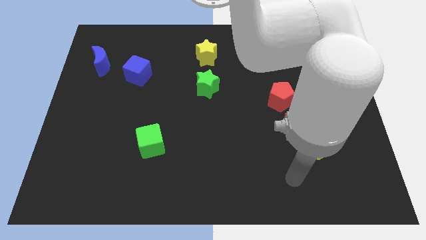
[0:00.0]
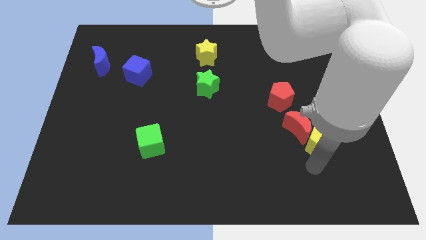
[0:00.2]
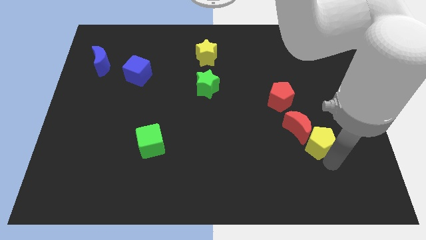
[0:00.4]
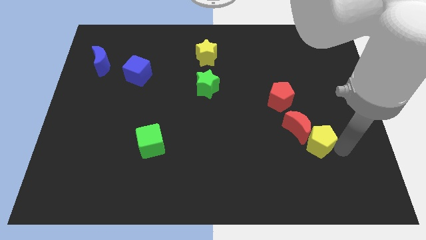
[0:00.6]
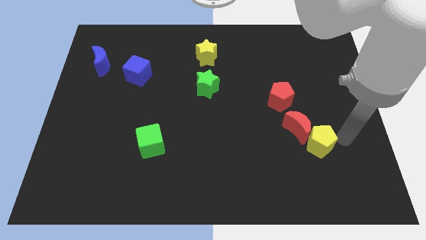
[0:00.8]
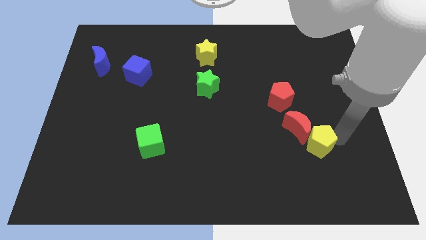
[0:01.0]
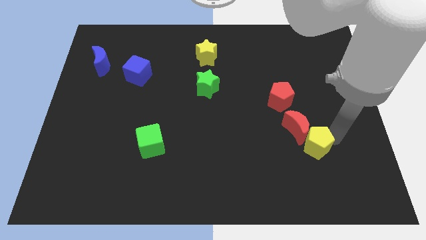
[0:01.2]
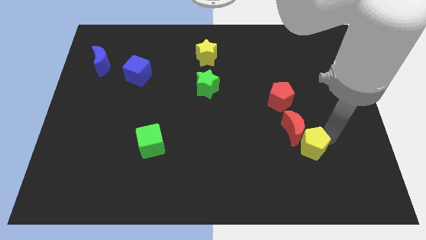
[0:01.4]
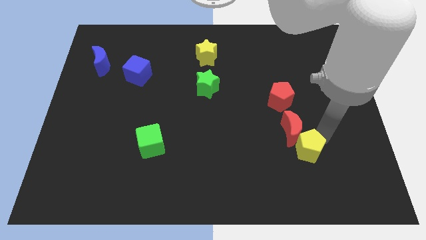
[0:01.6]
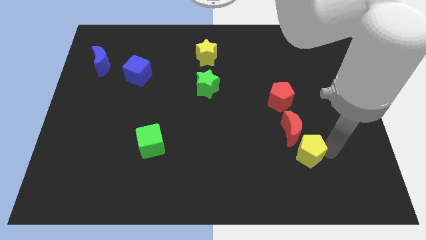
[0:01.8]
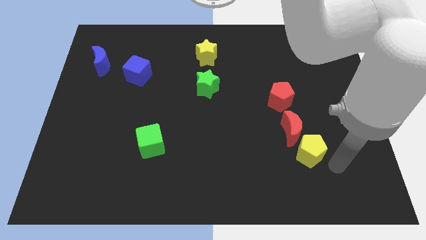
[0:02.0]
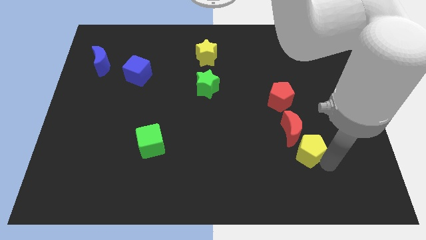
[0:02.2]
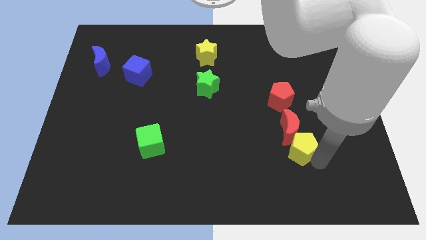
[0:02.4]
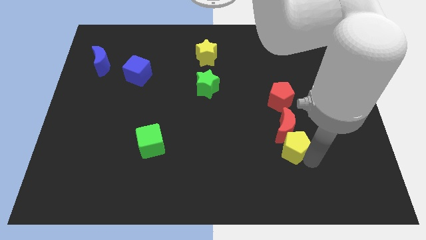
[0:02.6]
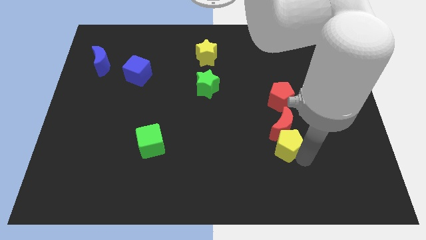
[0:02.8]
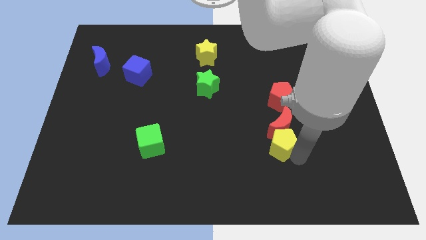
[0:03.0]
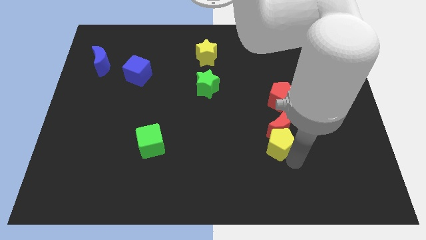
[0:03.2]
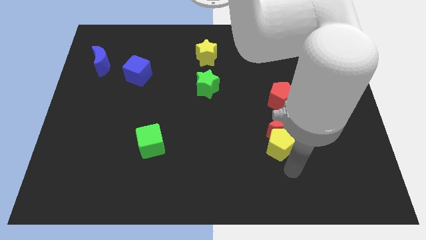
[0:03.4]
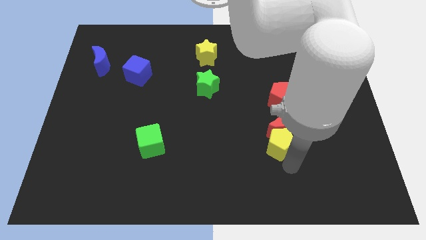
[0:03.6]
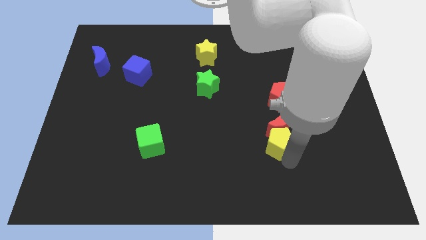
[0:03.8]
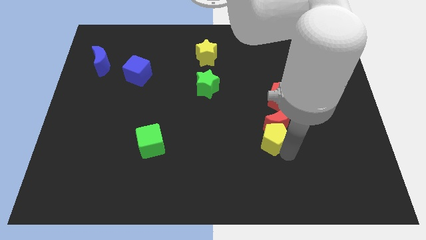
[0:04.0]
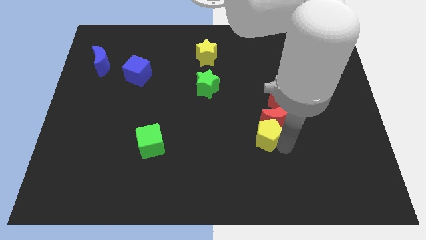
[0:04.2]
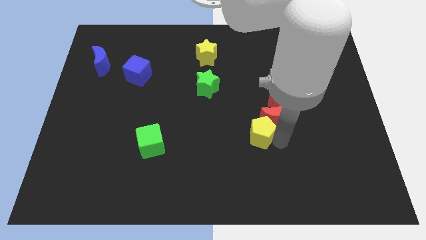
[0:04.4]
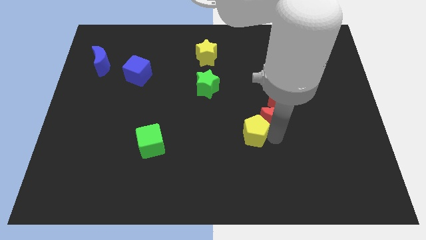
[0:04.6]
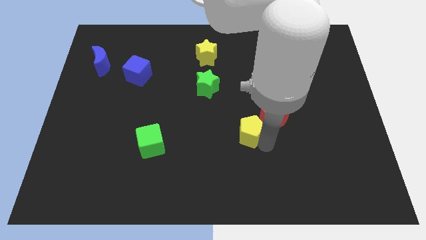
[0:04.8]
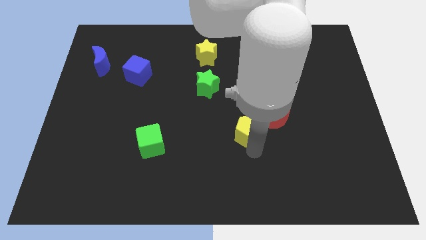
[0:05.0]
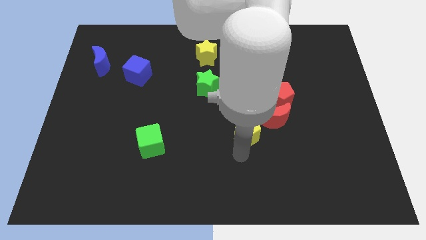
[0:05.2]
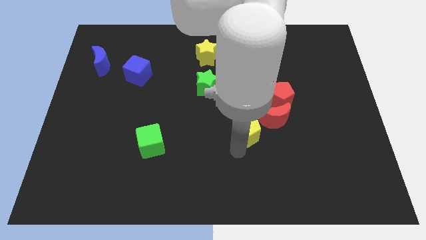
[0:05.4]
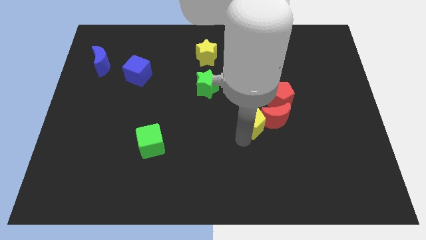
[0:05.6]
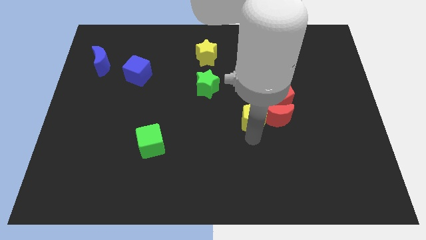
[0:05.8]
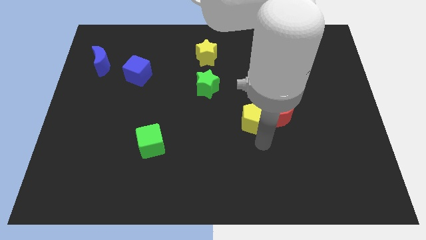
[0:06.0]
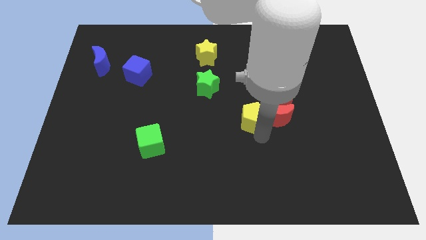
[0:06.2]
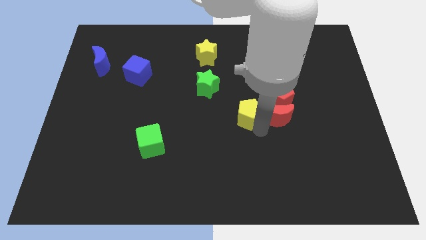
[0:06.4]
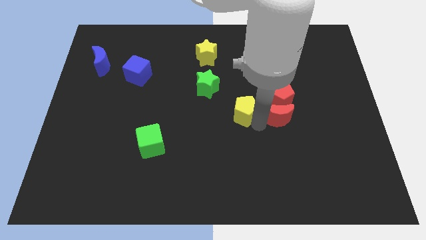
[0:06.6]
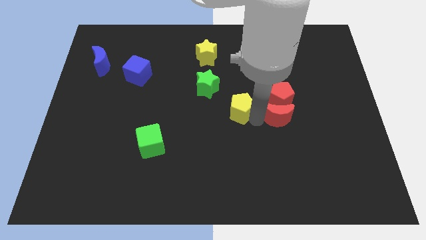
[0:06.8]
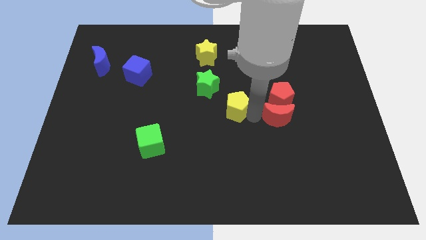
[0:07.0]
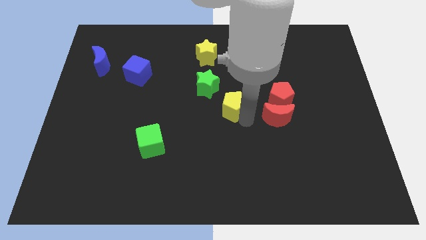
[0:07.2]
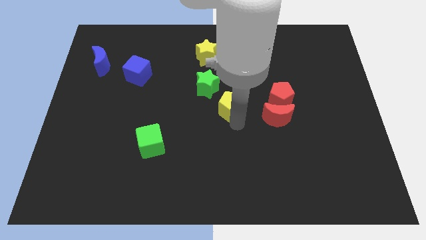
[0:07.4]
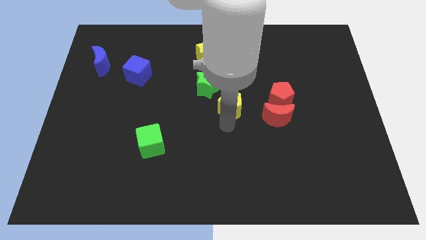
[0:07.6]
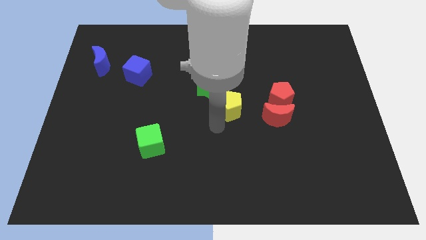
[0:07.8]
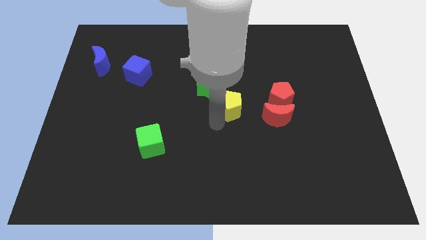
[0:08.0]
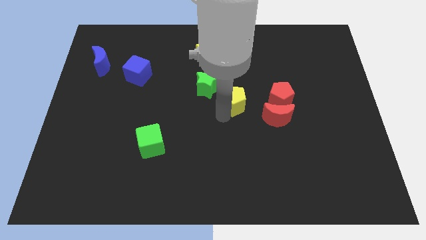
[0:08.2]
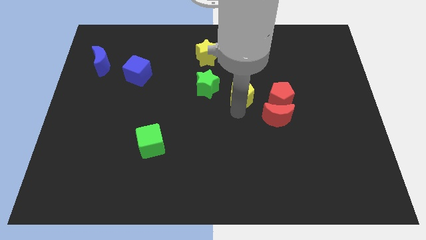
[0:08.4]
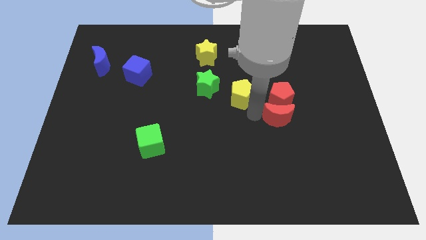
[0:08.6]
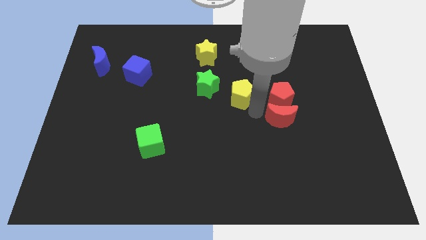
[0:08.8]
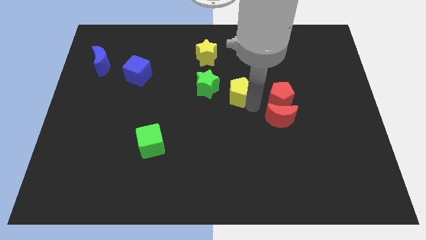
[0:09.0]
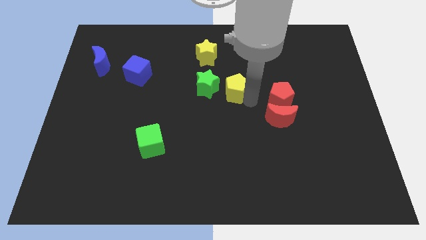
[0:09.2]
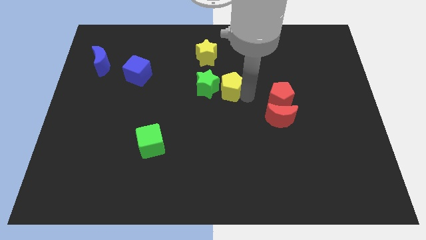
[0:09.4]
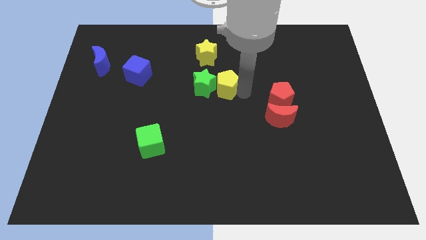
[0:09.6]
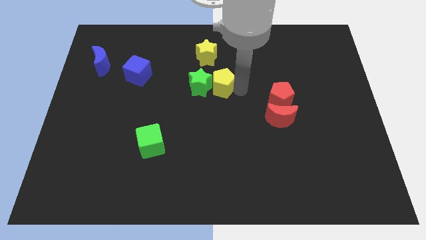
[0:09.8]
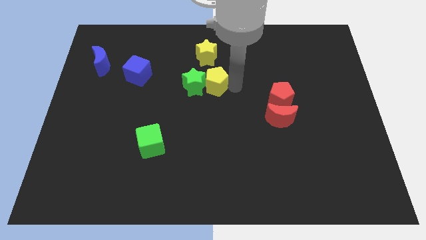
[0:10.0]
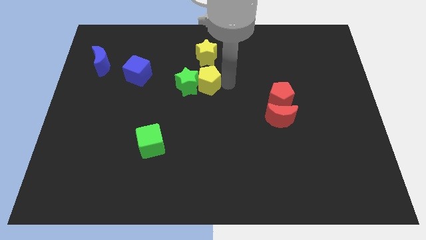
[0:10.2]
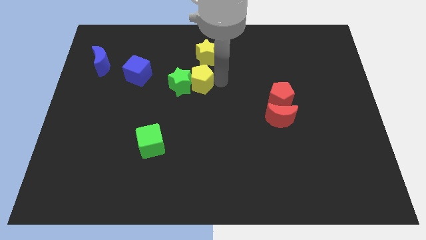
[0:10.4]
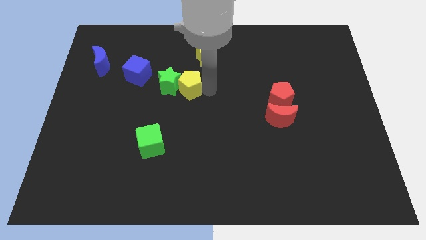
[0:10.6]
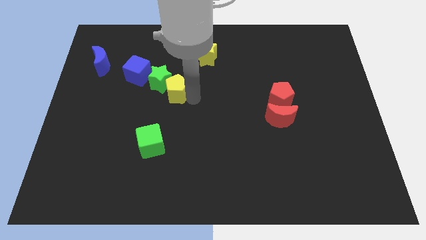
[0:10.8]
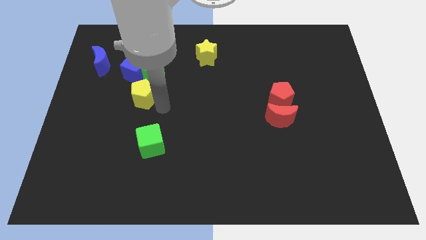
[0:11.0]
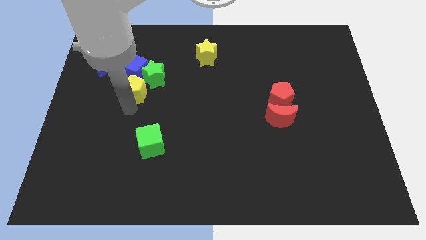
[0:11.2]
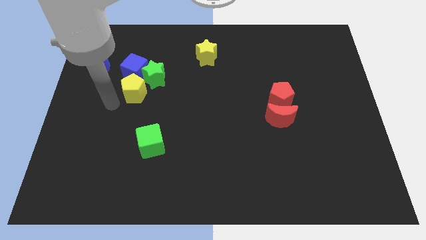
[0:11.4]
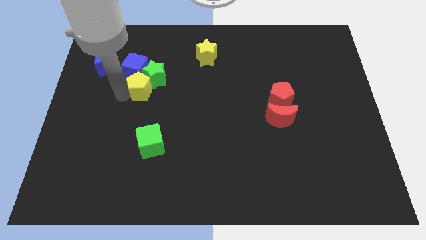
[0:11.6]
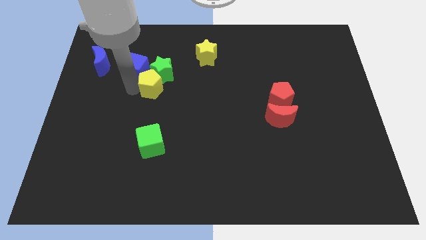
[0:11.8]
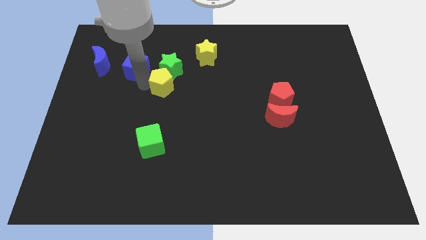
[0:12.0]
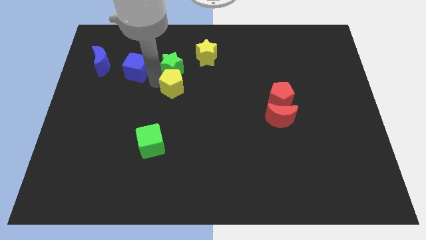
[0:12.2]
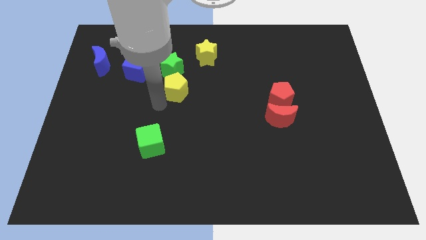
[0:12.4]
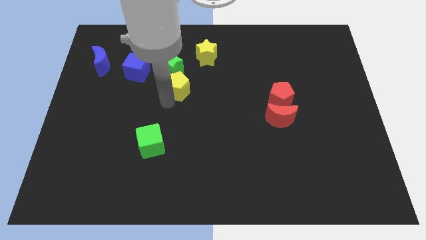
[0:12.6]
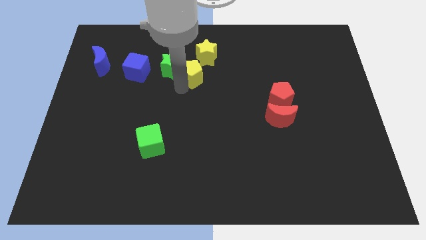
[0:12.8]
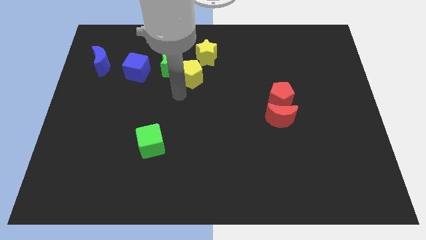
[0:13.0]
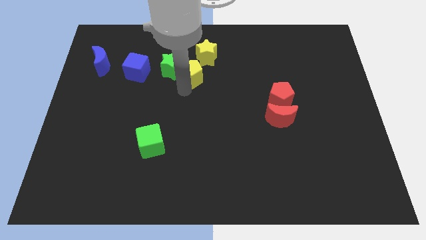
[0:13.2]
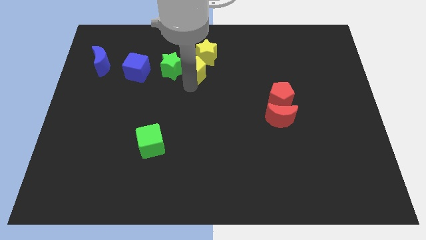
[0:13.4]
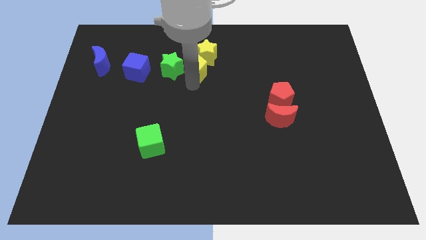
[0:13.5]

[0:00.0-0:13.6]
push the yellow pentagon towards the yellow star
